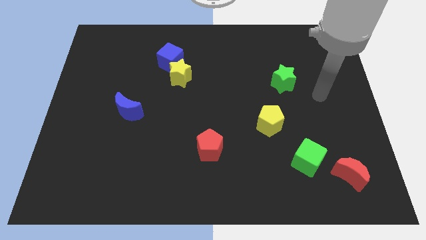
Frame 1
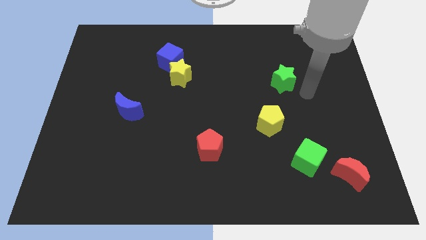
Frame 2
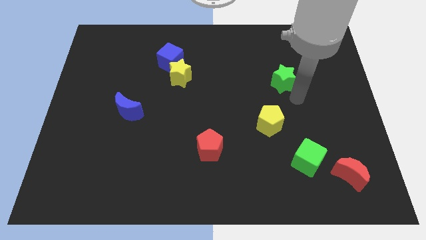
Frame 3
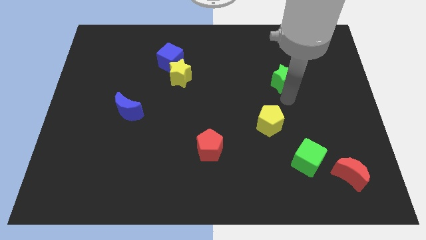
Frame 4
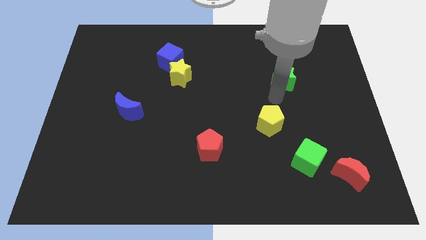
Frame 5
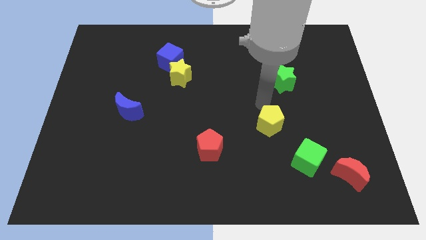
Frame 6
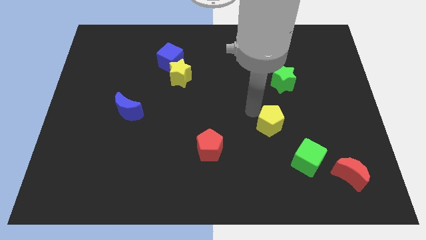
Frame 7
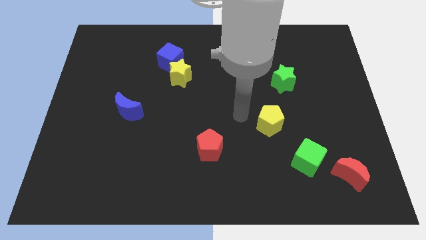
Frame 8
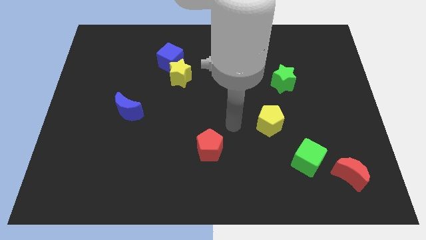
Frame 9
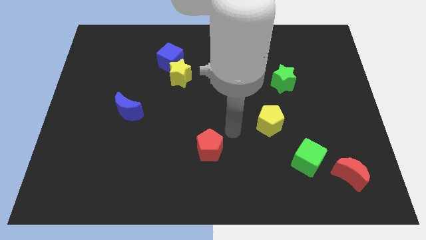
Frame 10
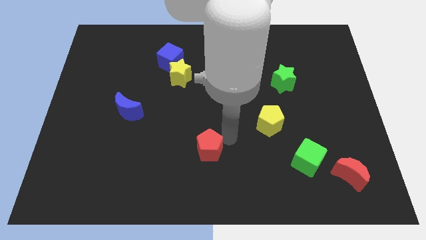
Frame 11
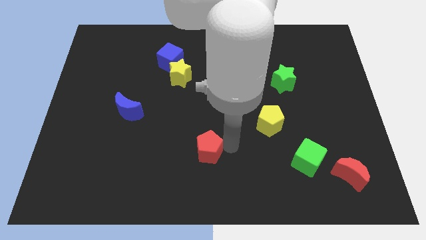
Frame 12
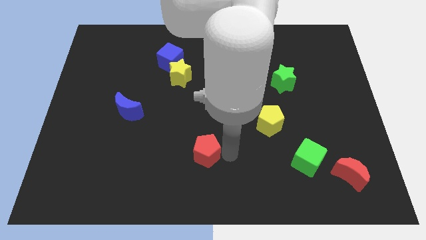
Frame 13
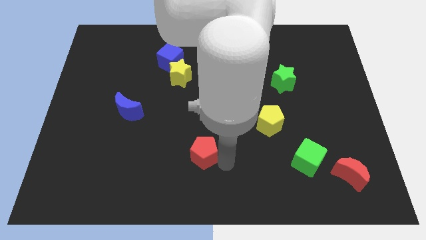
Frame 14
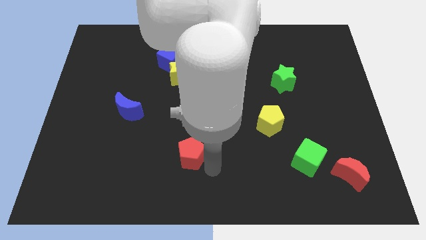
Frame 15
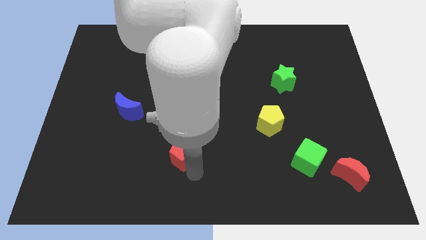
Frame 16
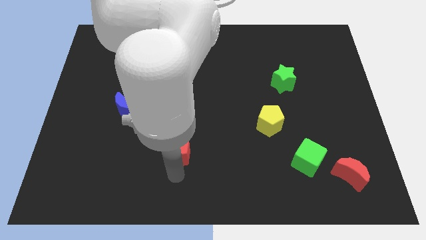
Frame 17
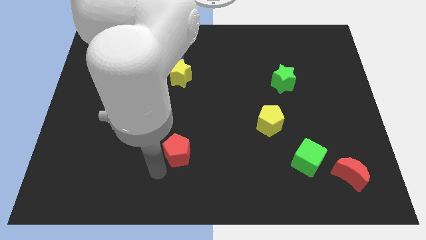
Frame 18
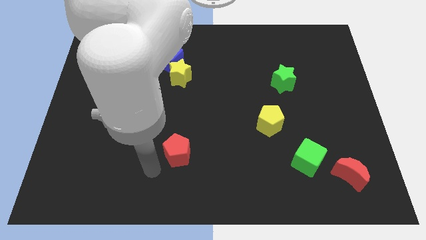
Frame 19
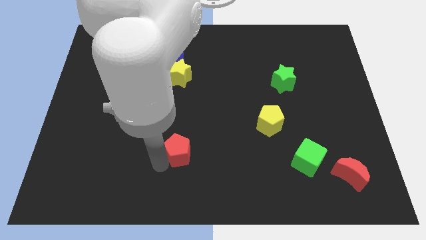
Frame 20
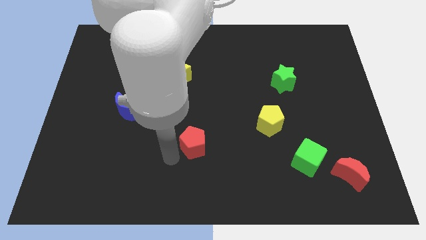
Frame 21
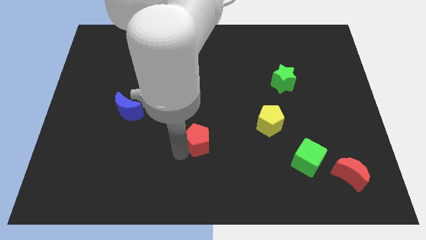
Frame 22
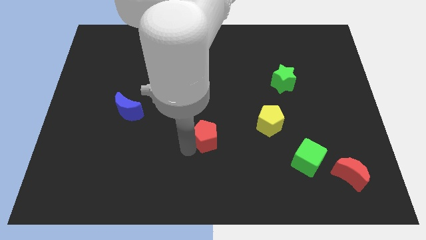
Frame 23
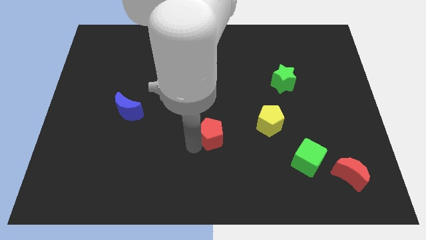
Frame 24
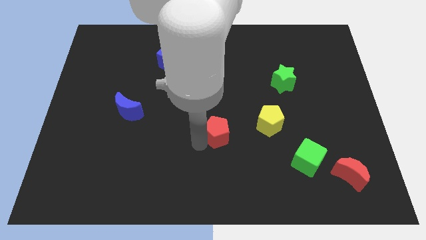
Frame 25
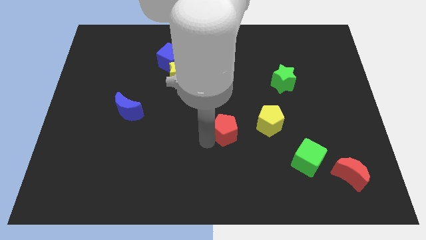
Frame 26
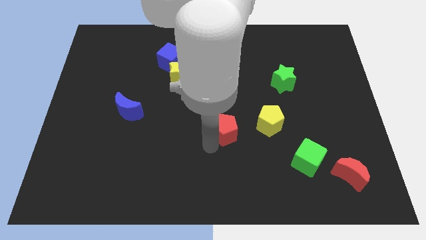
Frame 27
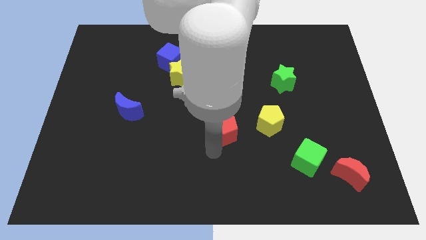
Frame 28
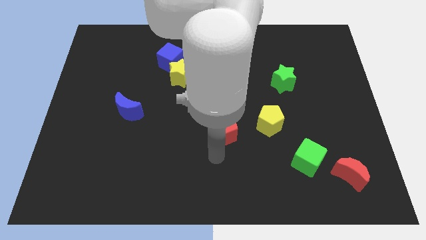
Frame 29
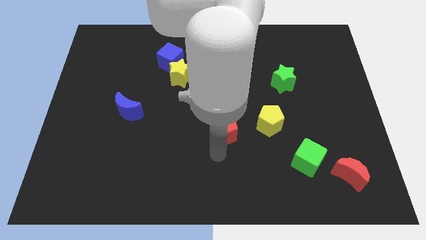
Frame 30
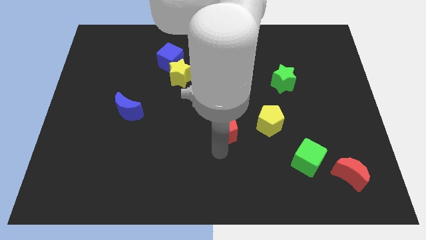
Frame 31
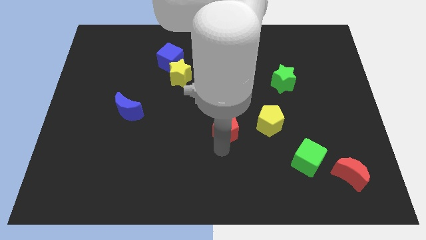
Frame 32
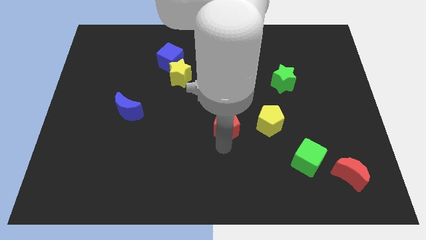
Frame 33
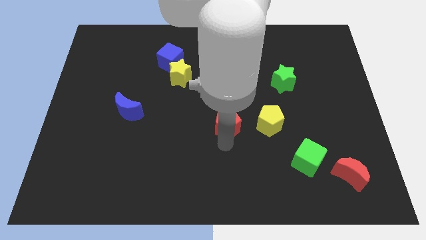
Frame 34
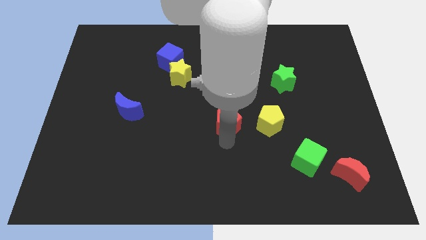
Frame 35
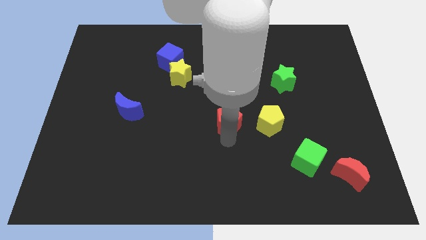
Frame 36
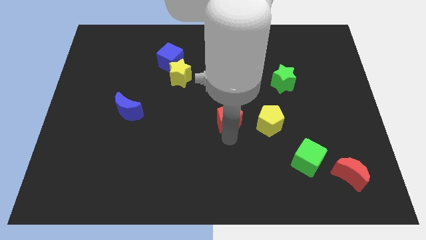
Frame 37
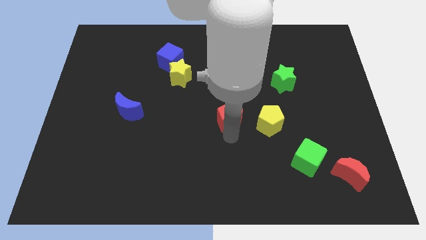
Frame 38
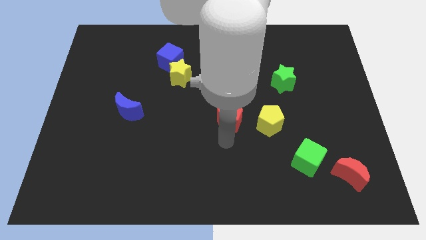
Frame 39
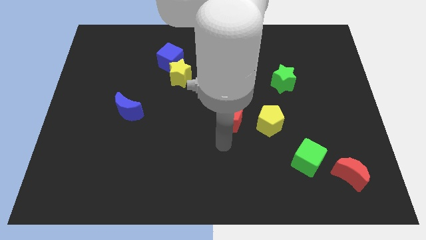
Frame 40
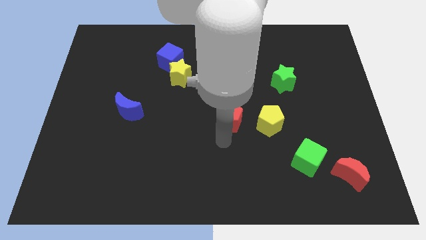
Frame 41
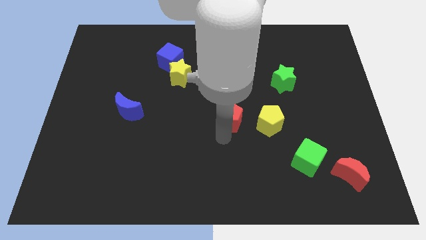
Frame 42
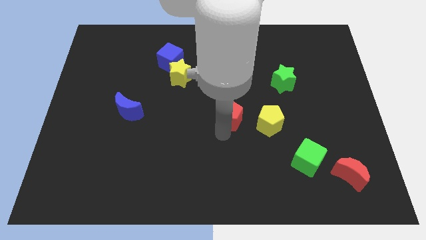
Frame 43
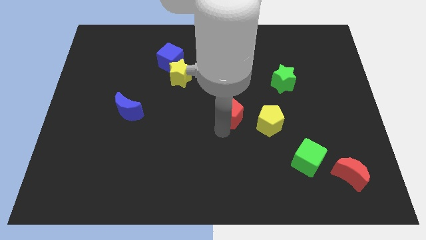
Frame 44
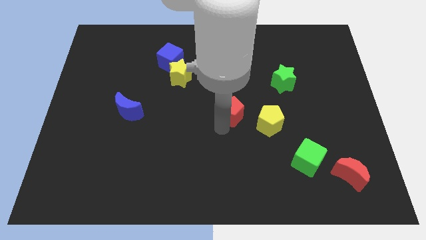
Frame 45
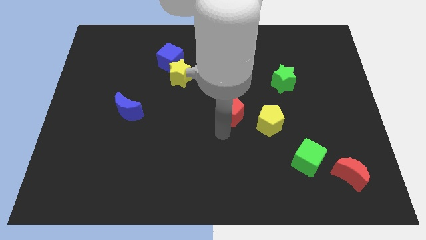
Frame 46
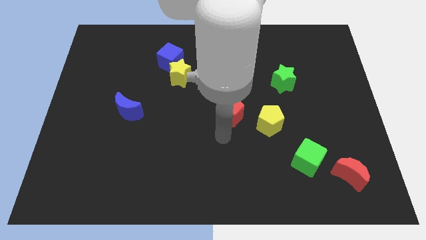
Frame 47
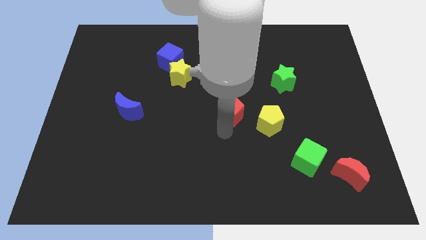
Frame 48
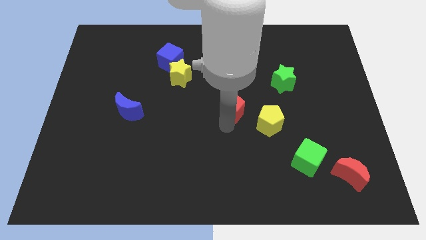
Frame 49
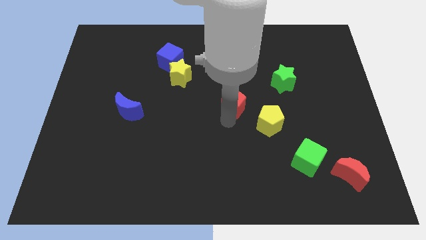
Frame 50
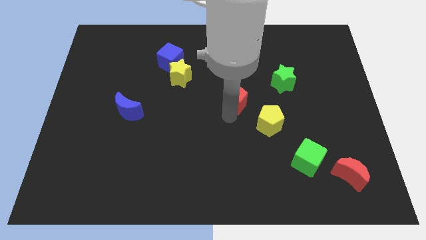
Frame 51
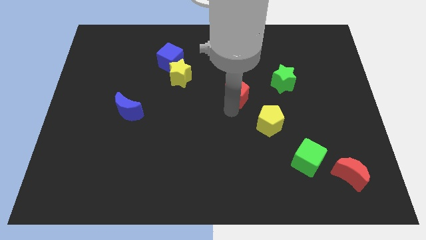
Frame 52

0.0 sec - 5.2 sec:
move the red pentagon left of the green star

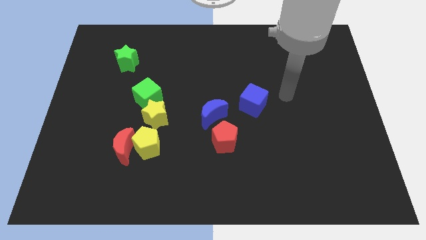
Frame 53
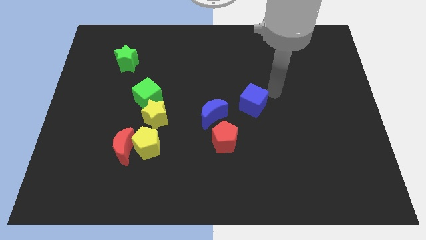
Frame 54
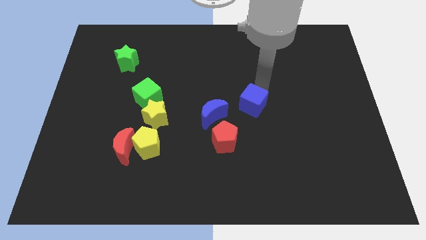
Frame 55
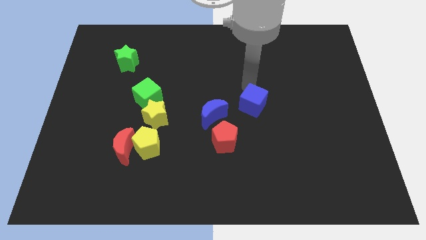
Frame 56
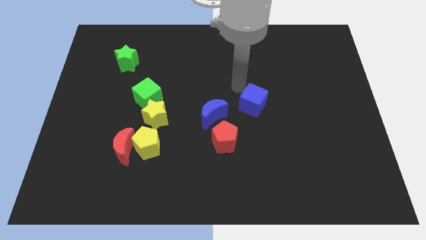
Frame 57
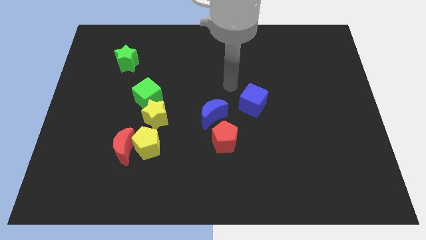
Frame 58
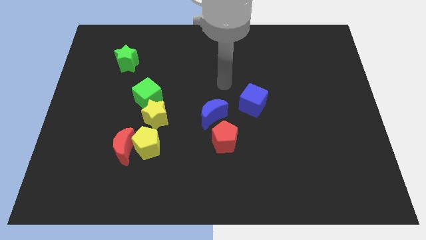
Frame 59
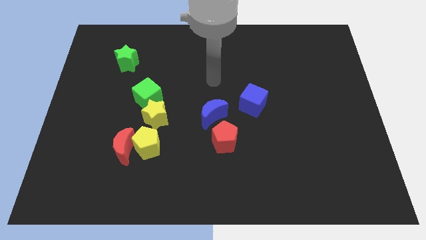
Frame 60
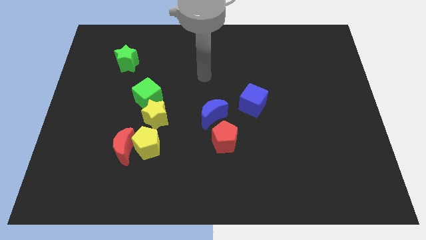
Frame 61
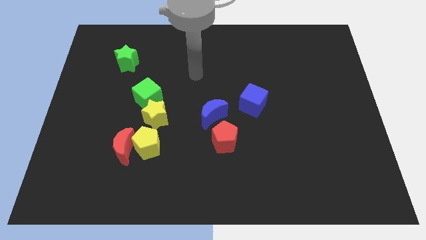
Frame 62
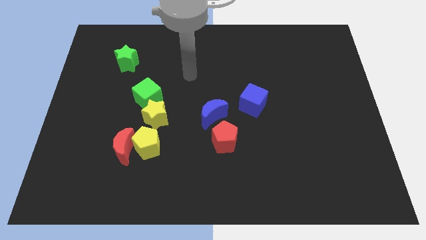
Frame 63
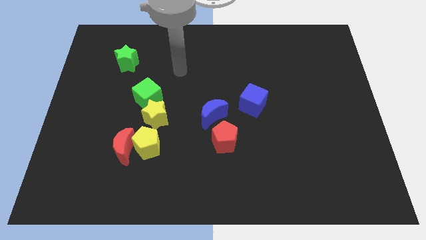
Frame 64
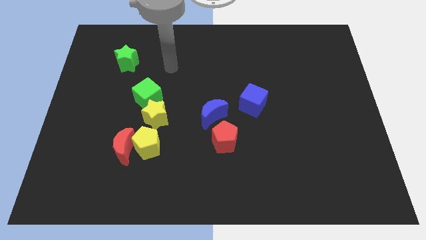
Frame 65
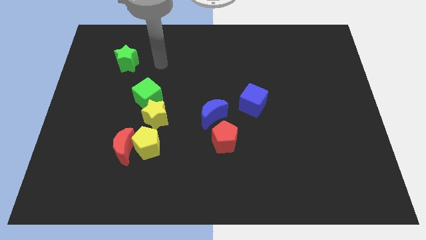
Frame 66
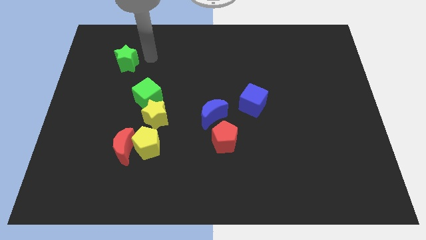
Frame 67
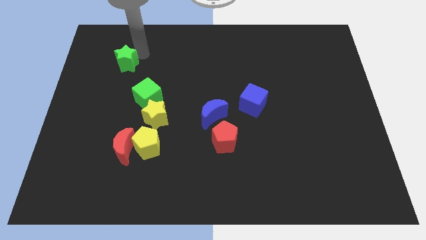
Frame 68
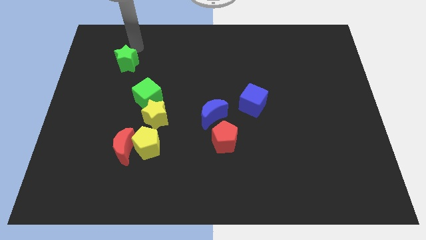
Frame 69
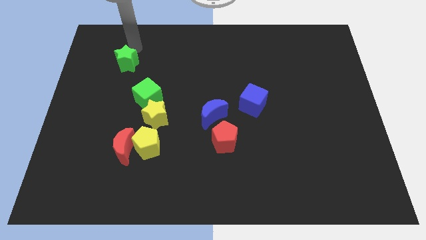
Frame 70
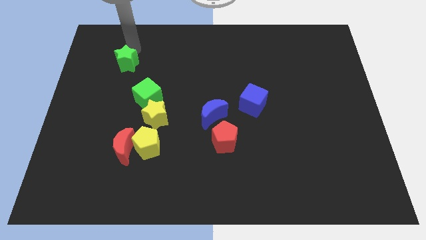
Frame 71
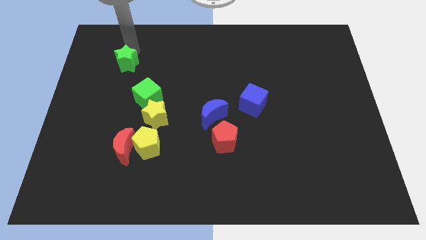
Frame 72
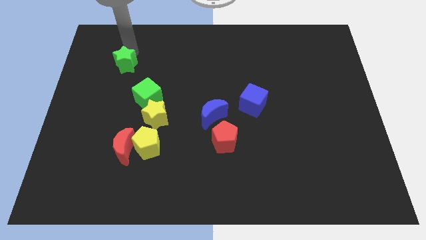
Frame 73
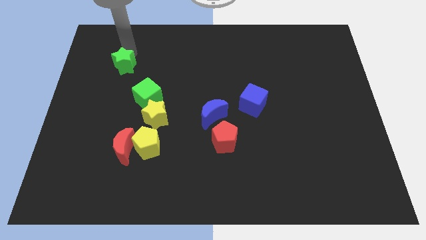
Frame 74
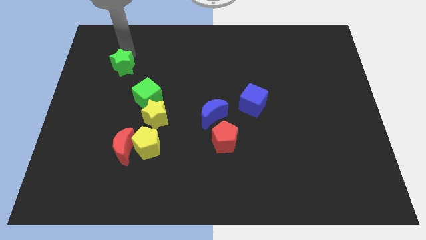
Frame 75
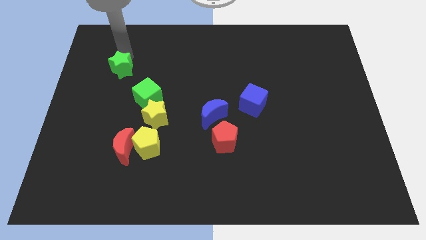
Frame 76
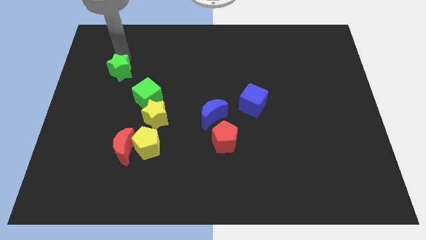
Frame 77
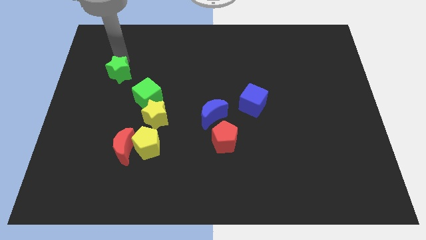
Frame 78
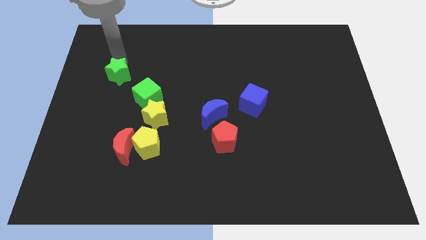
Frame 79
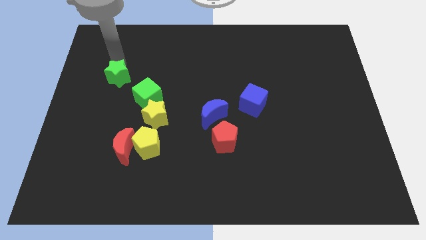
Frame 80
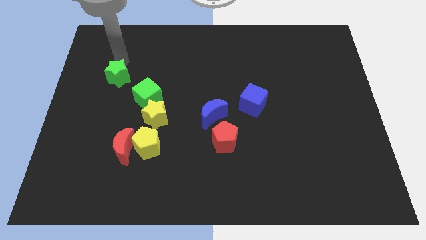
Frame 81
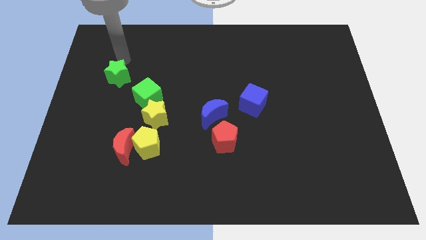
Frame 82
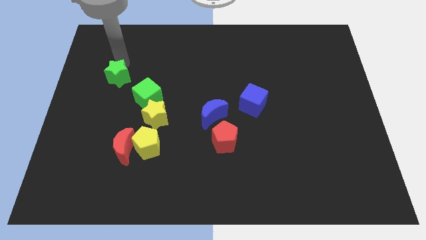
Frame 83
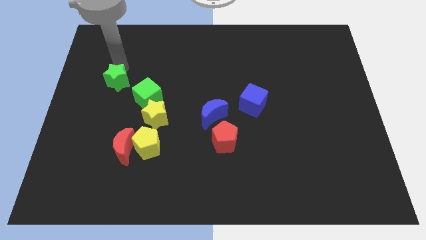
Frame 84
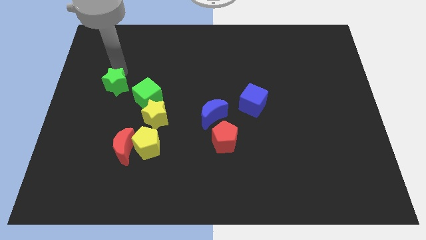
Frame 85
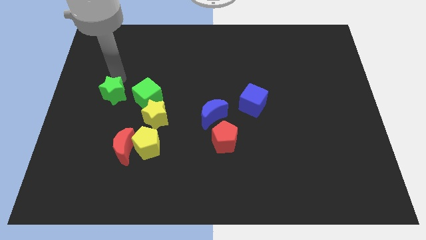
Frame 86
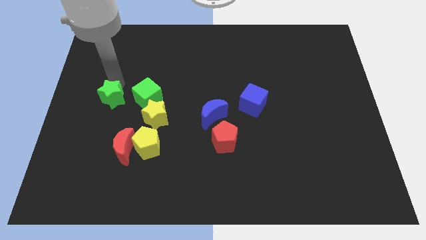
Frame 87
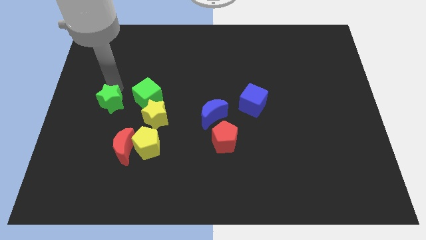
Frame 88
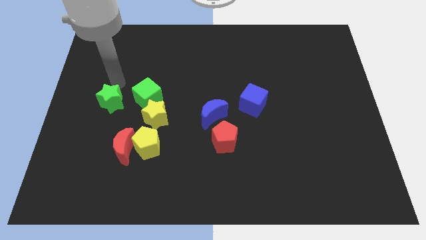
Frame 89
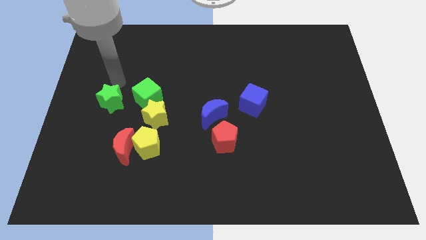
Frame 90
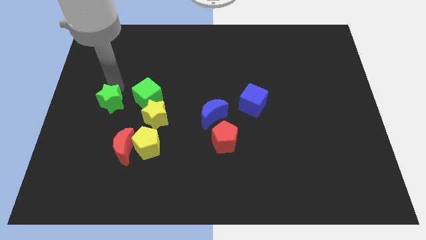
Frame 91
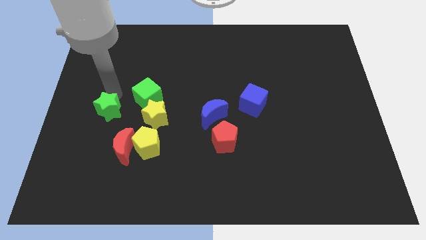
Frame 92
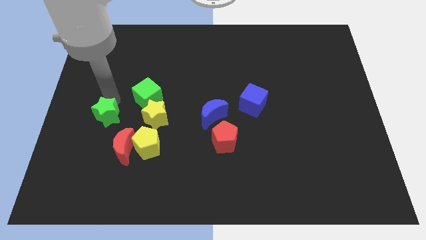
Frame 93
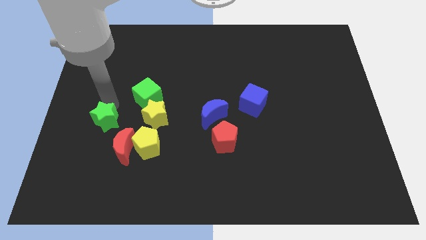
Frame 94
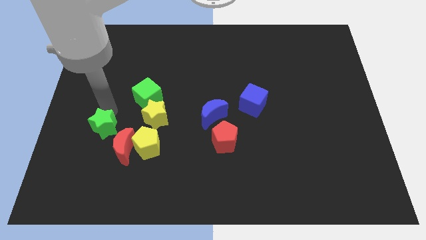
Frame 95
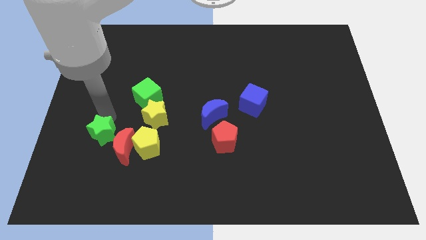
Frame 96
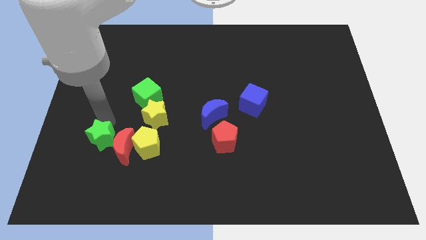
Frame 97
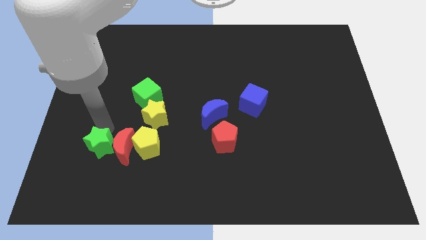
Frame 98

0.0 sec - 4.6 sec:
slide the green star to the bottom left of the red moon
